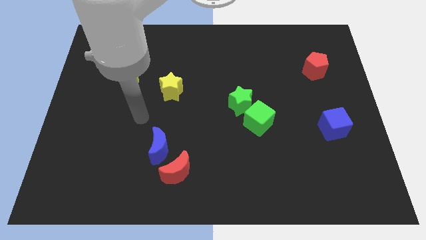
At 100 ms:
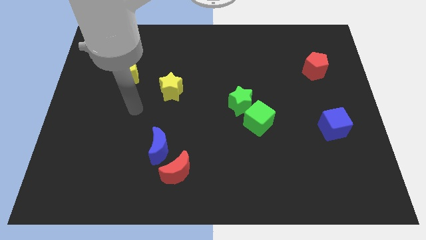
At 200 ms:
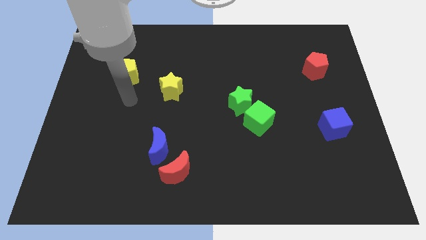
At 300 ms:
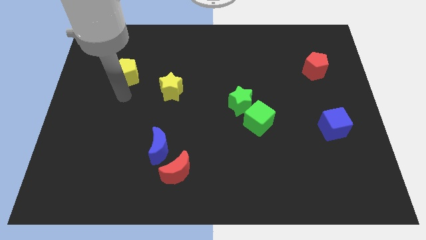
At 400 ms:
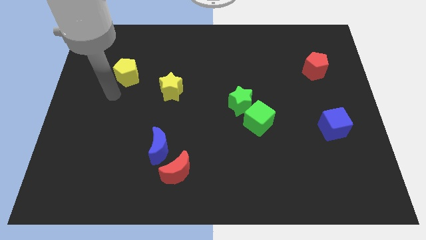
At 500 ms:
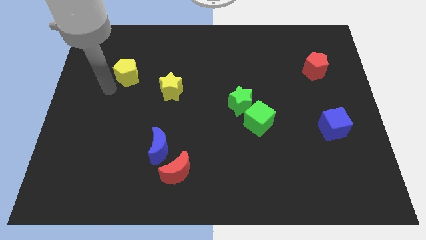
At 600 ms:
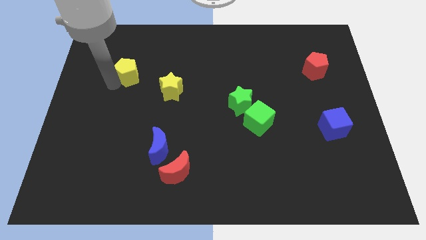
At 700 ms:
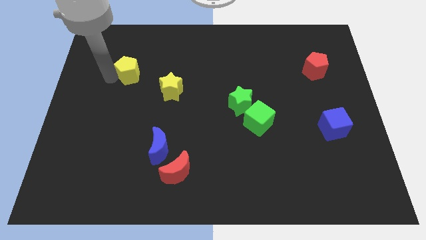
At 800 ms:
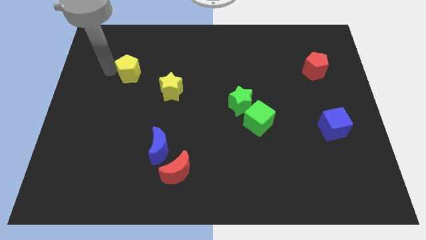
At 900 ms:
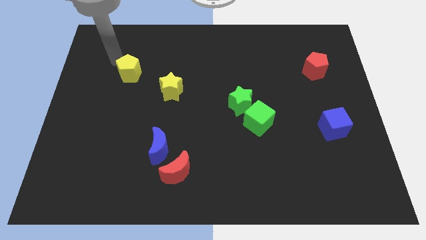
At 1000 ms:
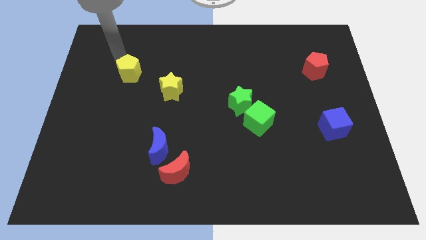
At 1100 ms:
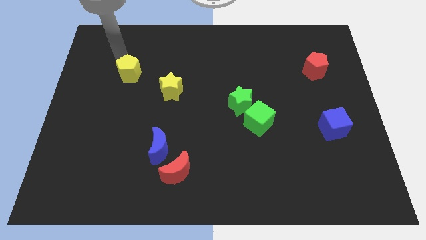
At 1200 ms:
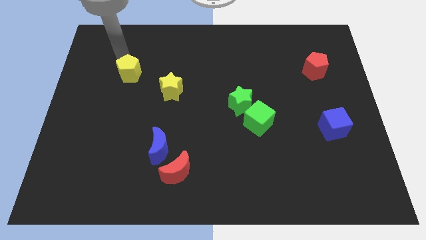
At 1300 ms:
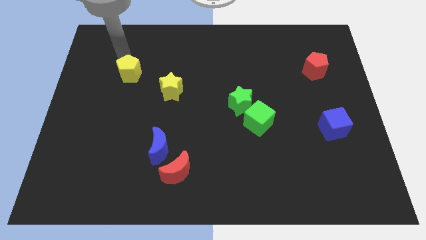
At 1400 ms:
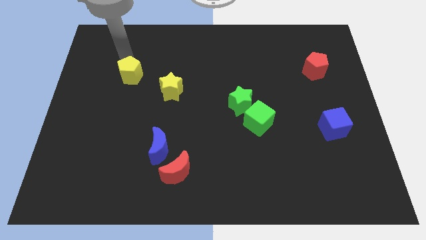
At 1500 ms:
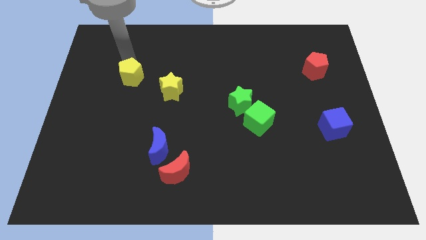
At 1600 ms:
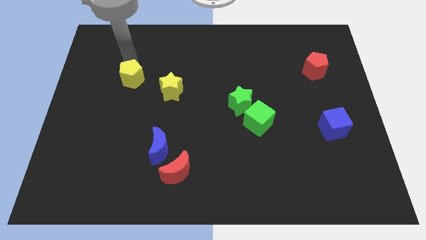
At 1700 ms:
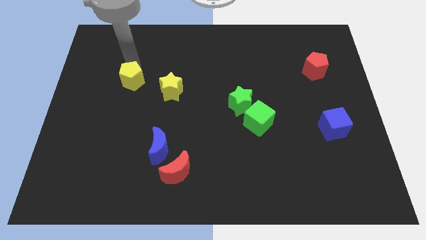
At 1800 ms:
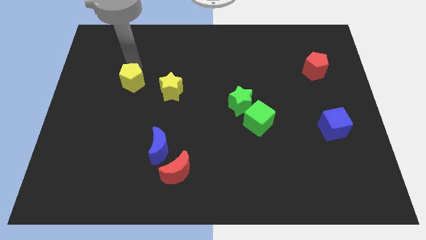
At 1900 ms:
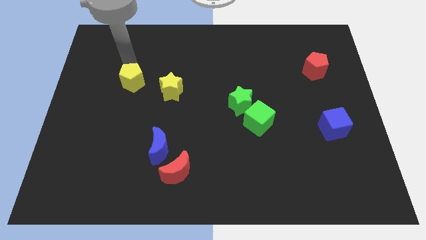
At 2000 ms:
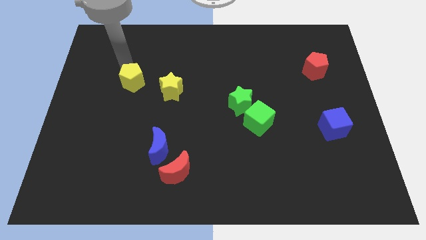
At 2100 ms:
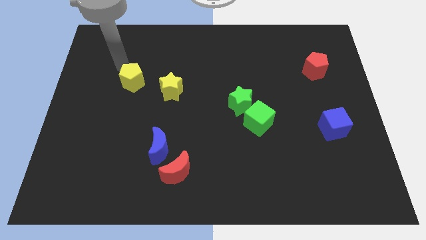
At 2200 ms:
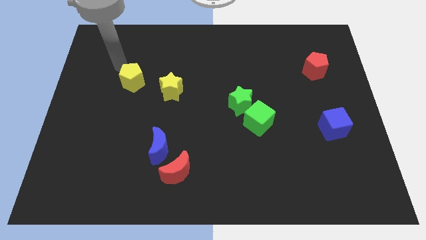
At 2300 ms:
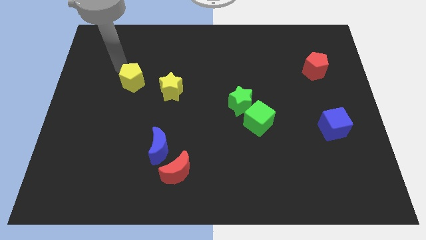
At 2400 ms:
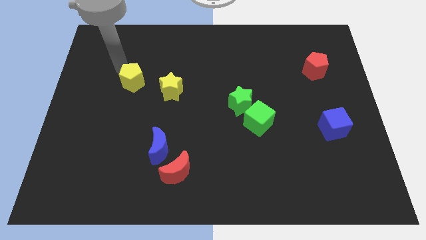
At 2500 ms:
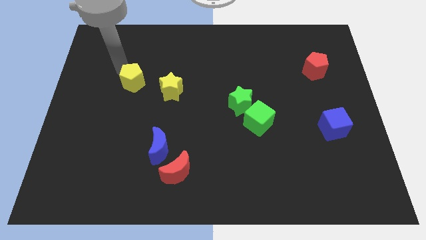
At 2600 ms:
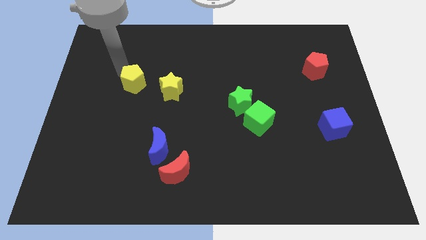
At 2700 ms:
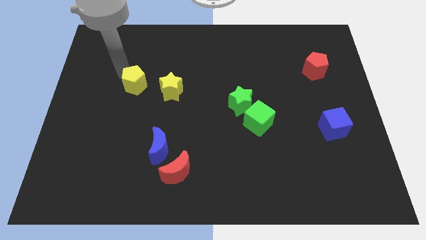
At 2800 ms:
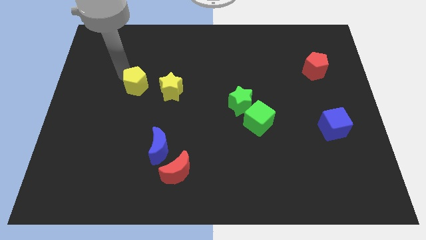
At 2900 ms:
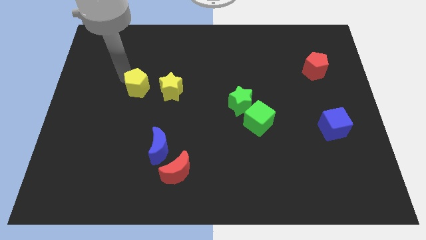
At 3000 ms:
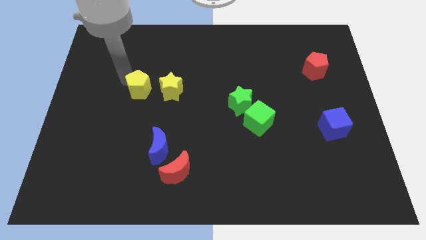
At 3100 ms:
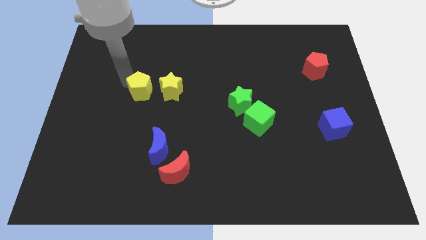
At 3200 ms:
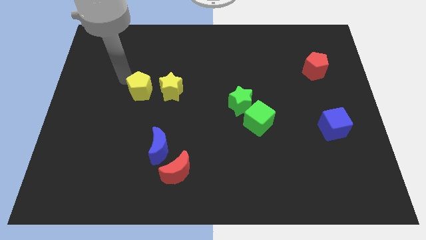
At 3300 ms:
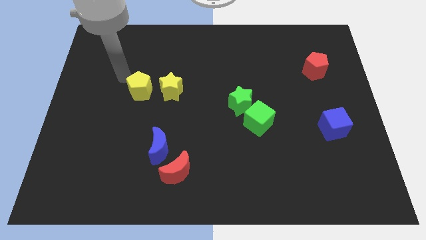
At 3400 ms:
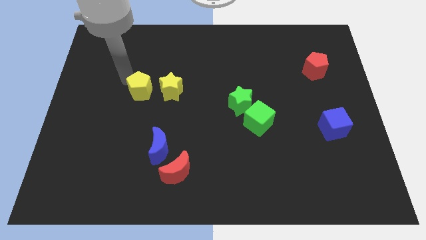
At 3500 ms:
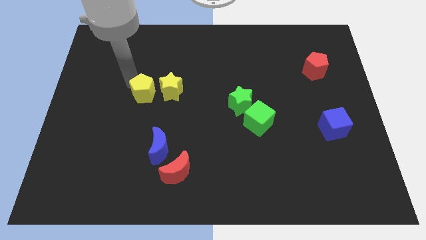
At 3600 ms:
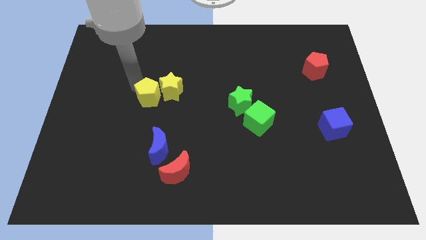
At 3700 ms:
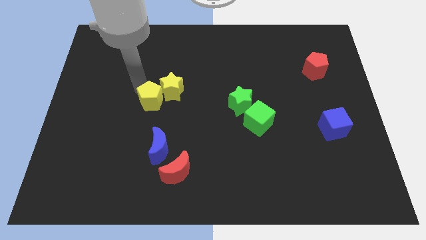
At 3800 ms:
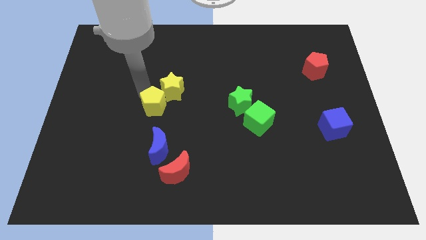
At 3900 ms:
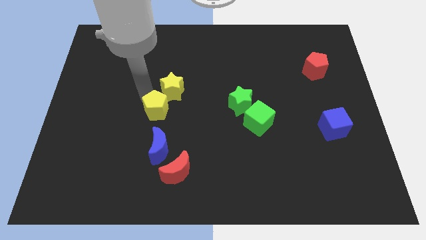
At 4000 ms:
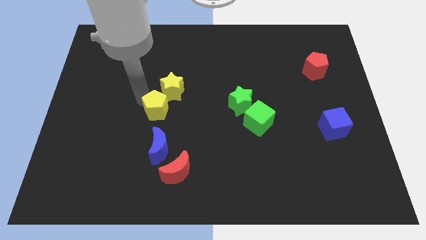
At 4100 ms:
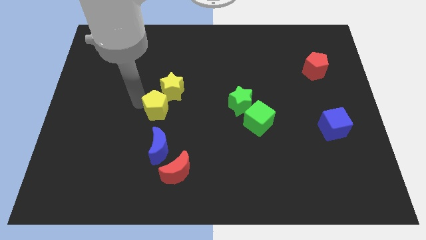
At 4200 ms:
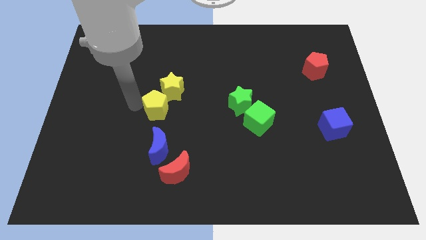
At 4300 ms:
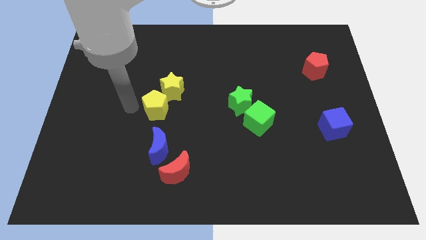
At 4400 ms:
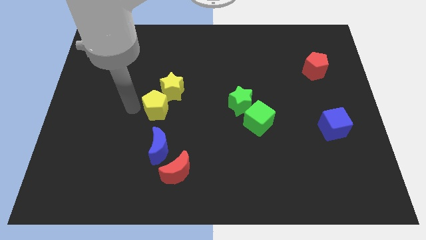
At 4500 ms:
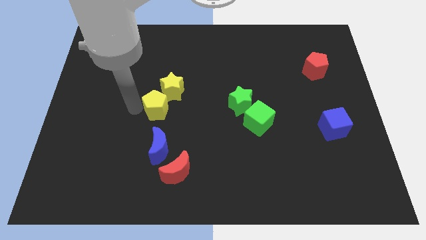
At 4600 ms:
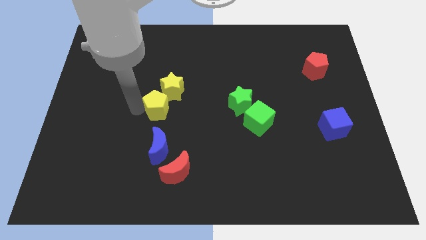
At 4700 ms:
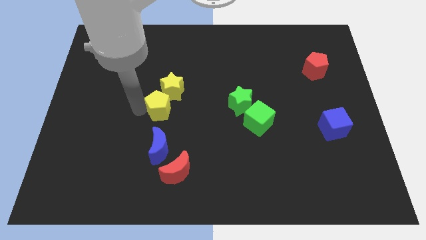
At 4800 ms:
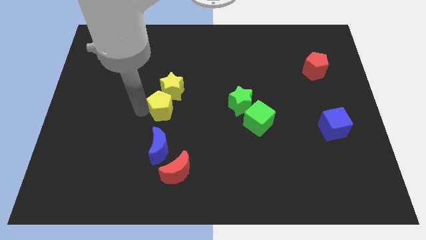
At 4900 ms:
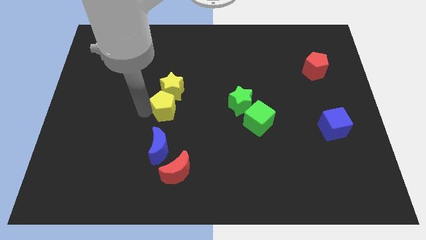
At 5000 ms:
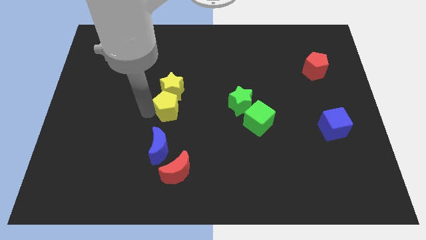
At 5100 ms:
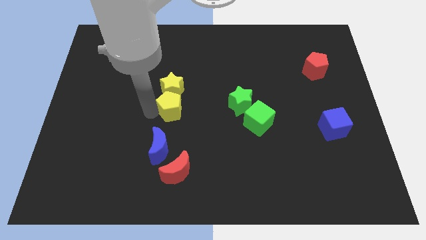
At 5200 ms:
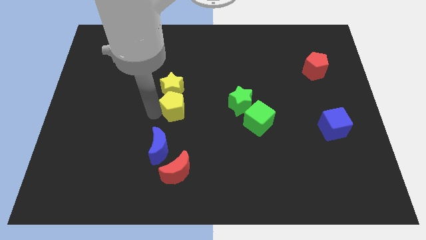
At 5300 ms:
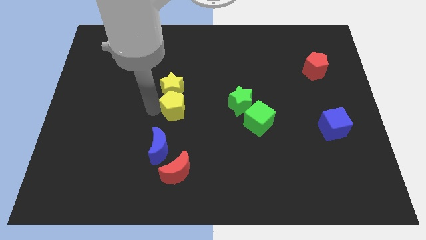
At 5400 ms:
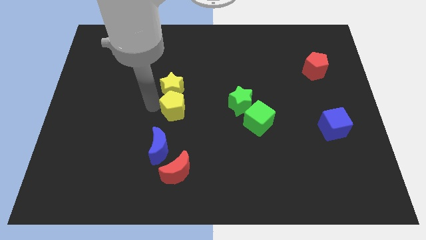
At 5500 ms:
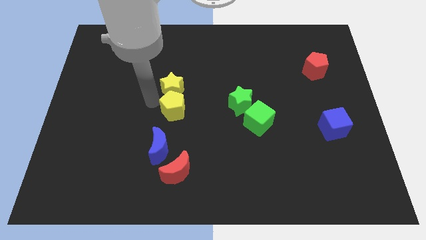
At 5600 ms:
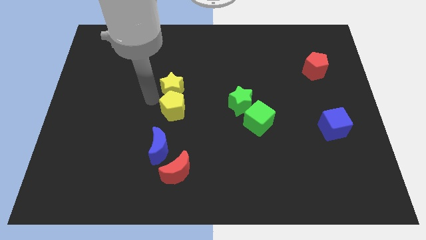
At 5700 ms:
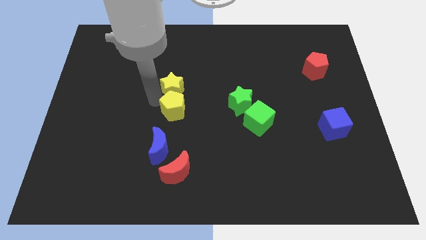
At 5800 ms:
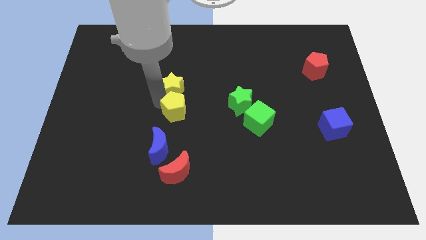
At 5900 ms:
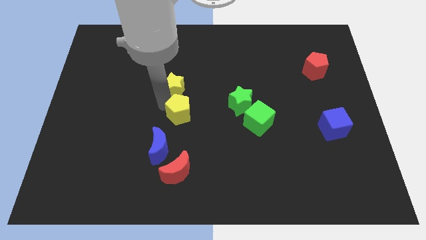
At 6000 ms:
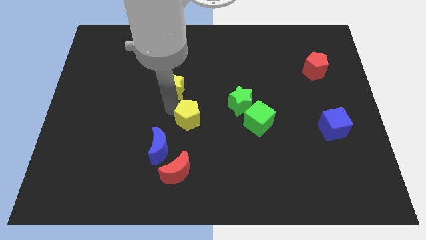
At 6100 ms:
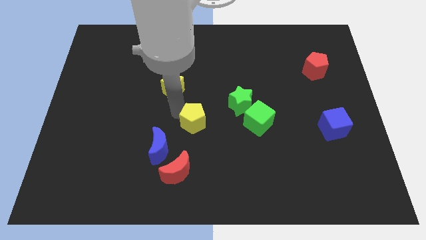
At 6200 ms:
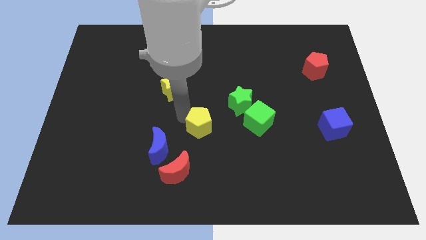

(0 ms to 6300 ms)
put the yellow pentagon diagonally down and to the left of the green star

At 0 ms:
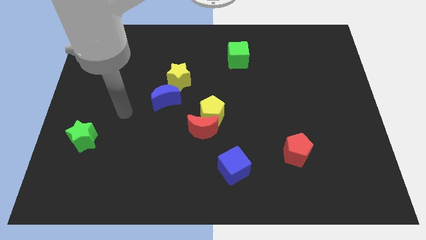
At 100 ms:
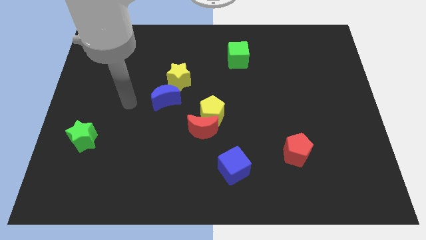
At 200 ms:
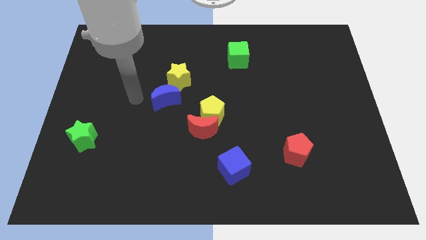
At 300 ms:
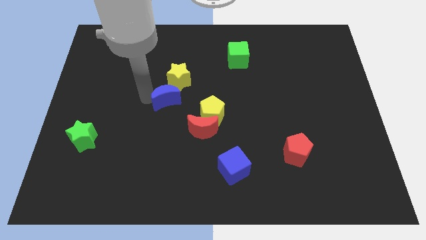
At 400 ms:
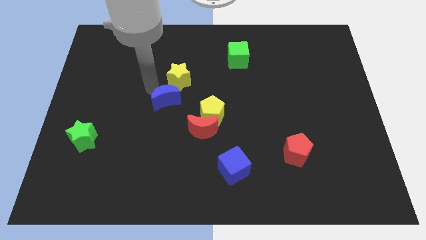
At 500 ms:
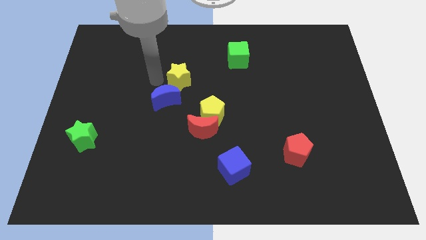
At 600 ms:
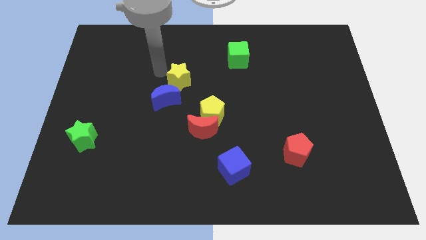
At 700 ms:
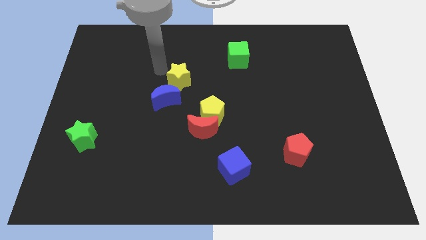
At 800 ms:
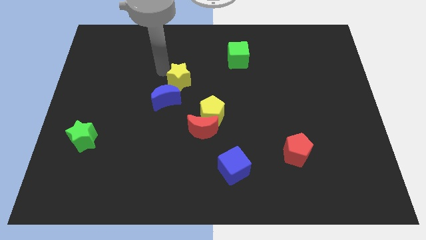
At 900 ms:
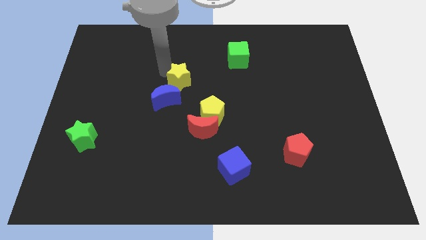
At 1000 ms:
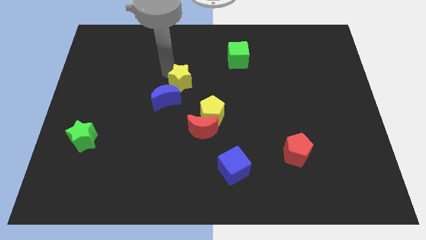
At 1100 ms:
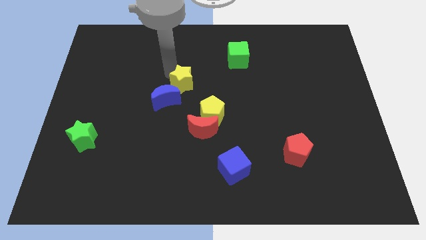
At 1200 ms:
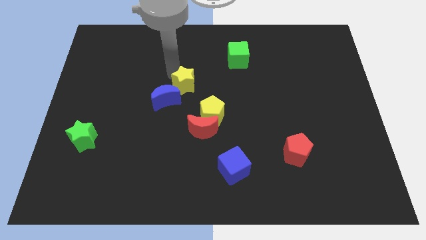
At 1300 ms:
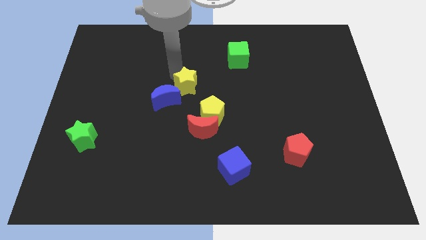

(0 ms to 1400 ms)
slide the yellow star to the top side of the red moon
